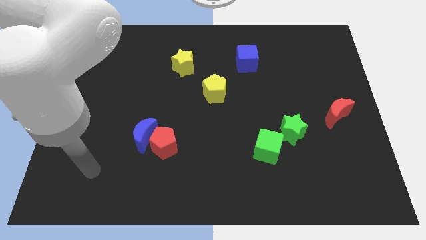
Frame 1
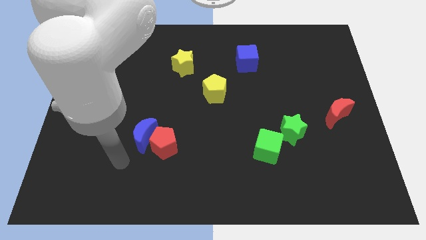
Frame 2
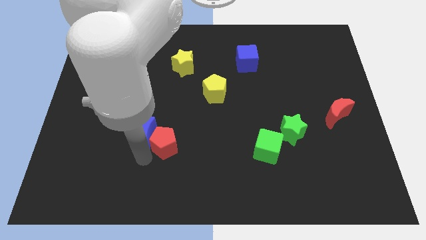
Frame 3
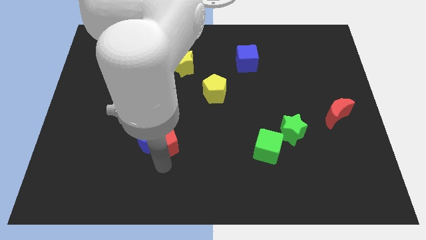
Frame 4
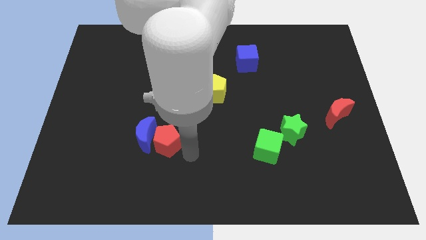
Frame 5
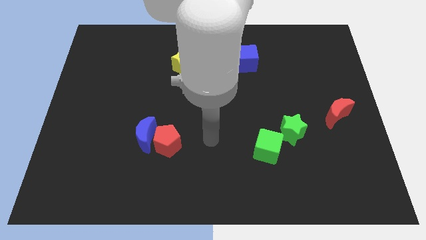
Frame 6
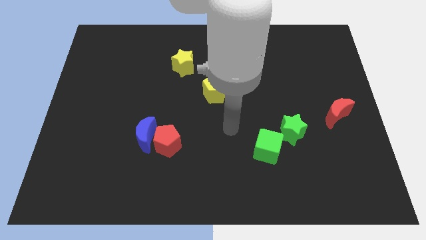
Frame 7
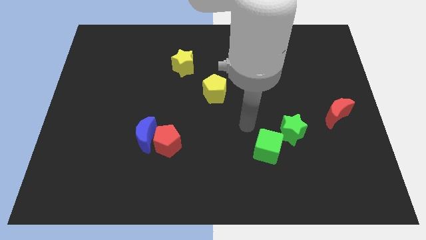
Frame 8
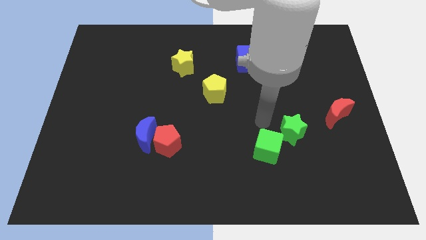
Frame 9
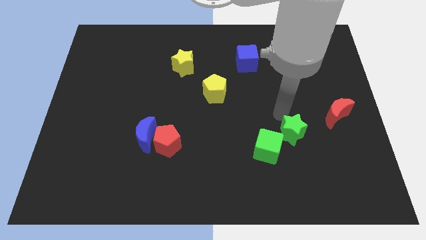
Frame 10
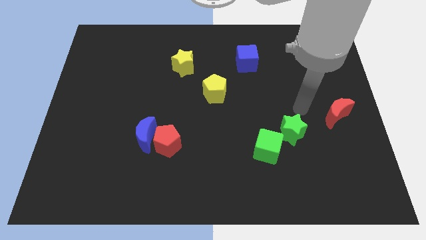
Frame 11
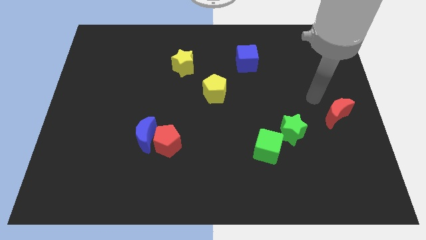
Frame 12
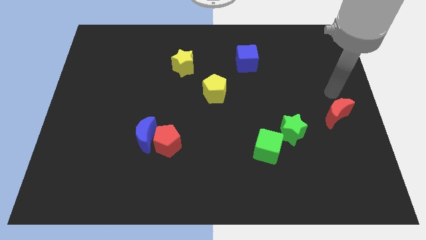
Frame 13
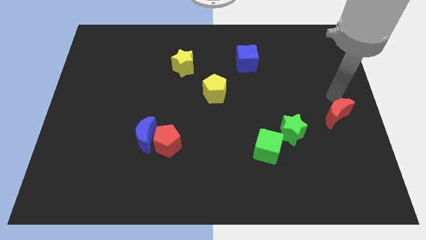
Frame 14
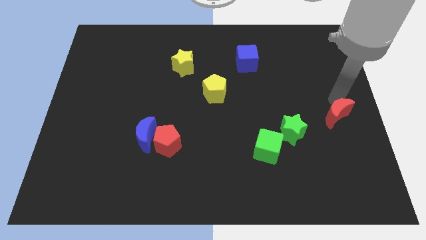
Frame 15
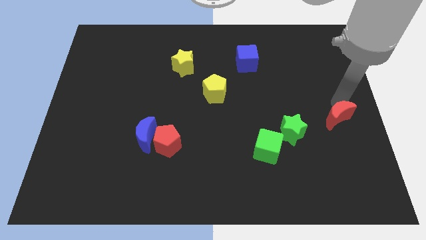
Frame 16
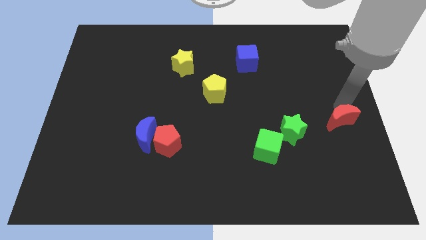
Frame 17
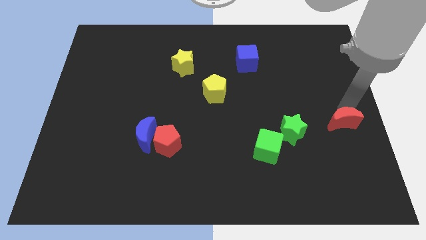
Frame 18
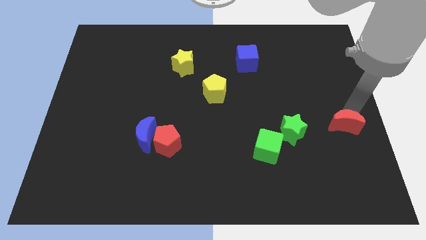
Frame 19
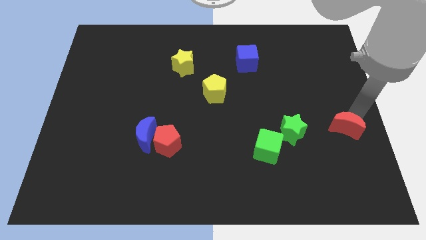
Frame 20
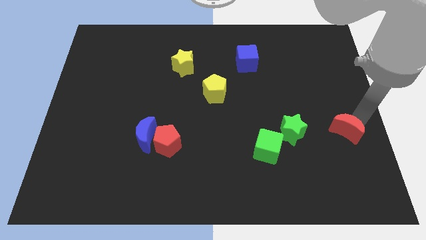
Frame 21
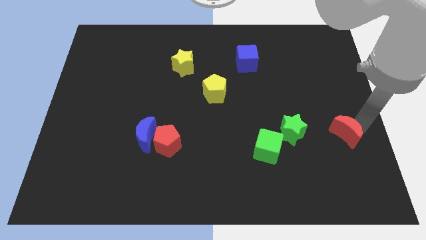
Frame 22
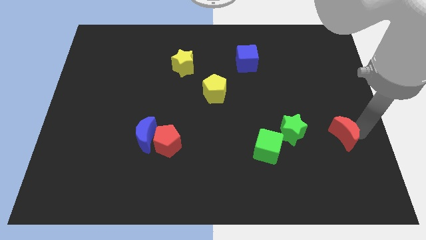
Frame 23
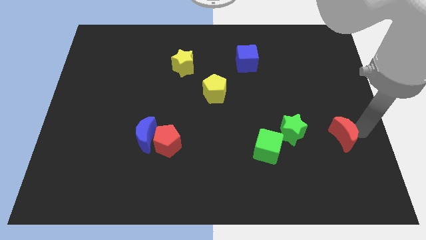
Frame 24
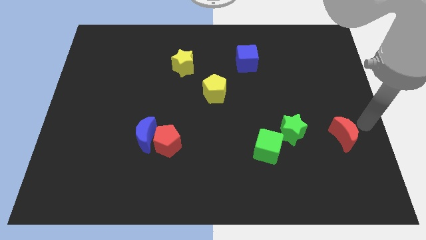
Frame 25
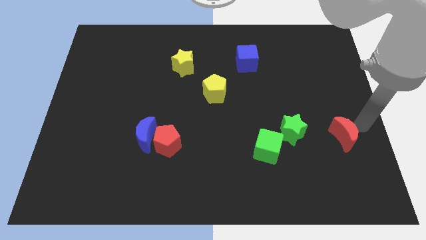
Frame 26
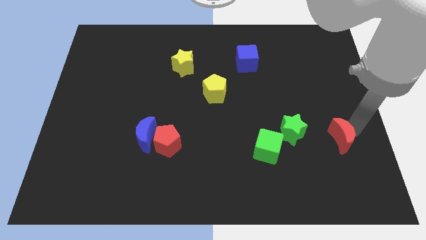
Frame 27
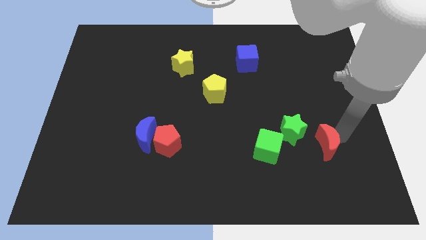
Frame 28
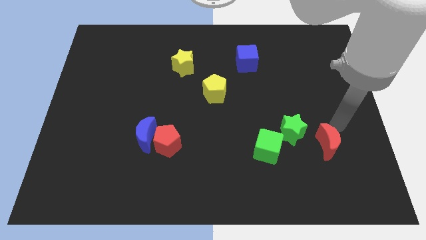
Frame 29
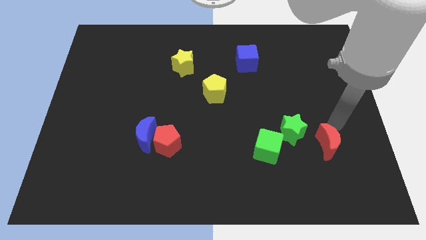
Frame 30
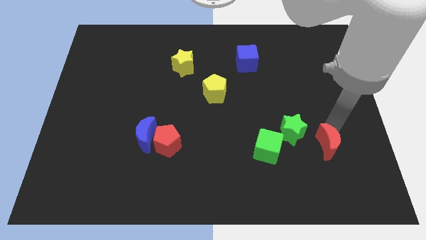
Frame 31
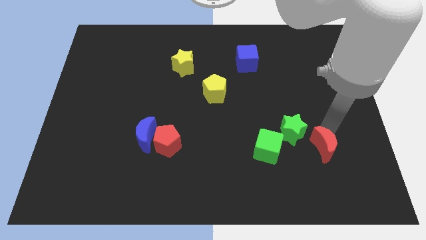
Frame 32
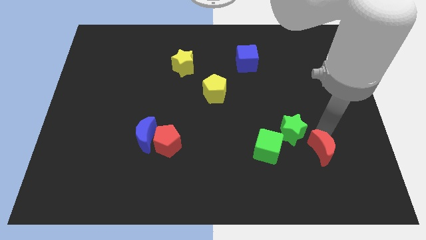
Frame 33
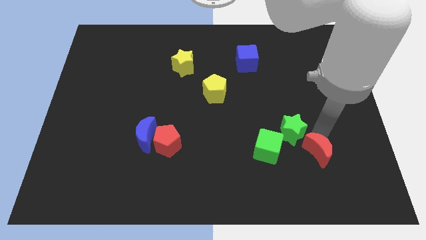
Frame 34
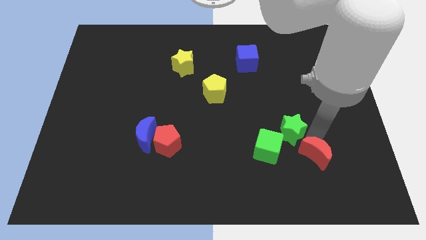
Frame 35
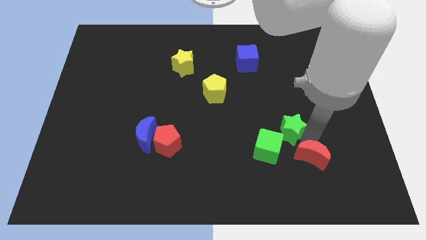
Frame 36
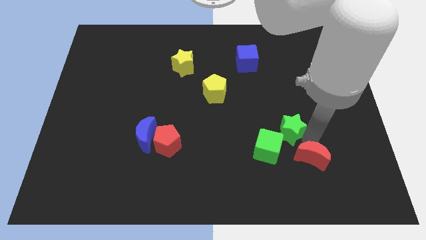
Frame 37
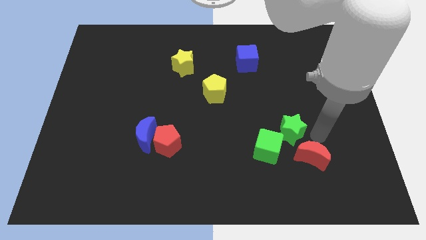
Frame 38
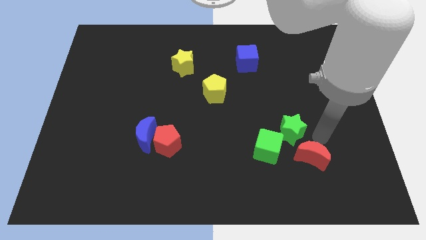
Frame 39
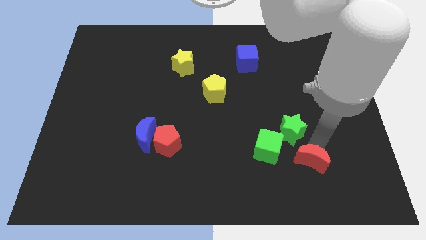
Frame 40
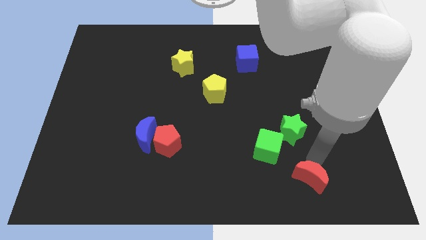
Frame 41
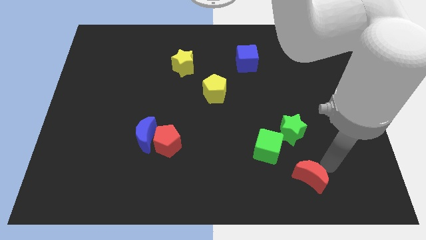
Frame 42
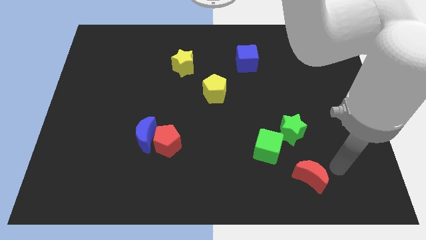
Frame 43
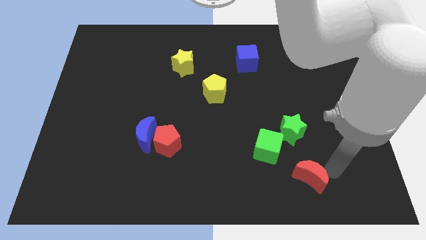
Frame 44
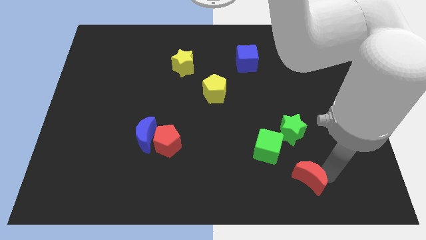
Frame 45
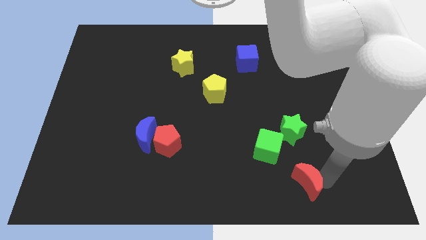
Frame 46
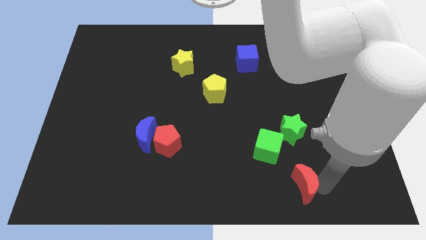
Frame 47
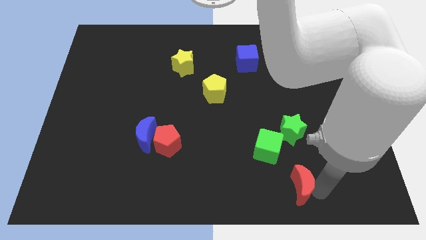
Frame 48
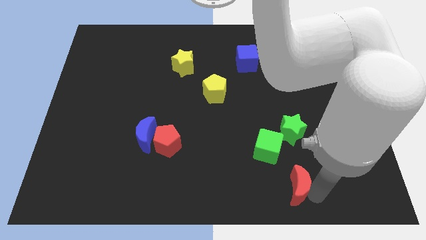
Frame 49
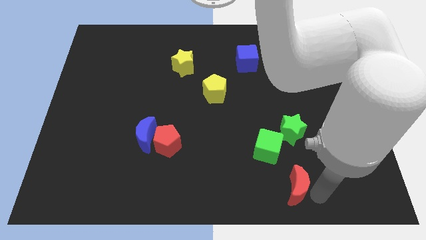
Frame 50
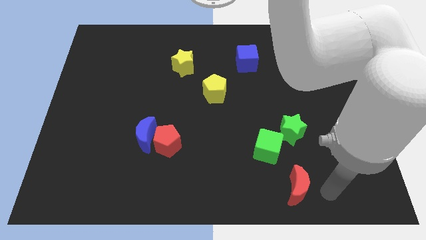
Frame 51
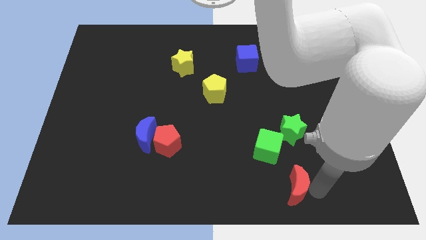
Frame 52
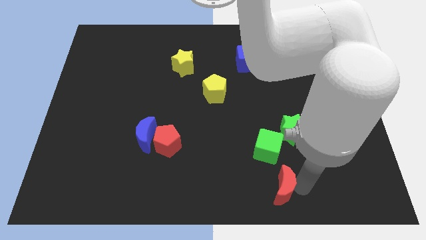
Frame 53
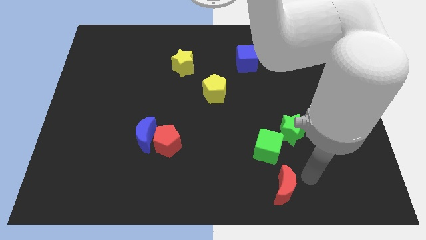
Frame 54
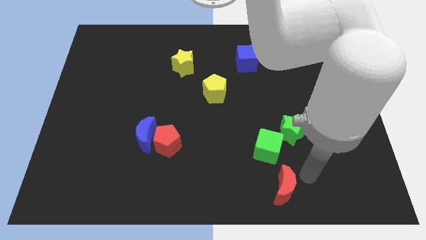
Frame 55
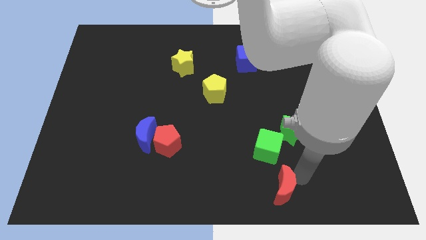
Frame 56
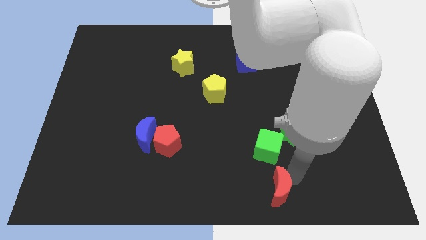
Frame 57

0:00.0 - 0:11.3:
slide the red moon to the bottom

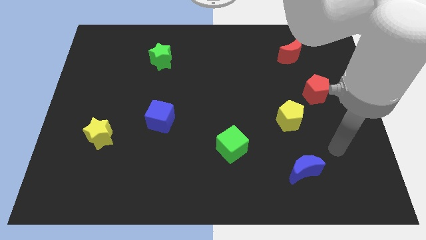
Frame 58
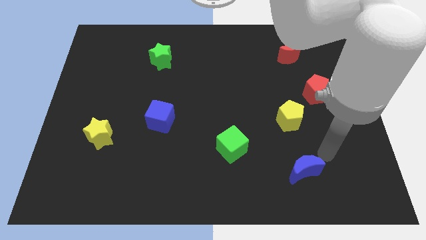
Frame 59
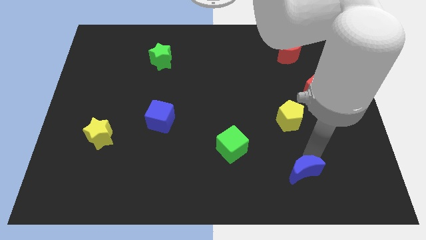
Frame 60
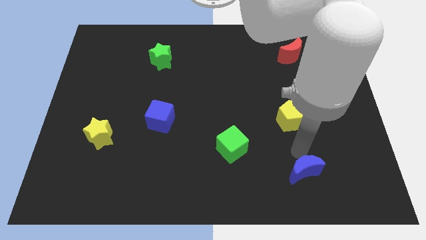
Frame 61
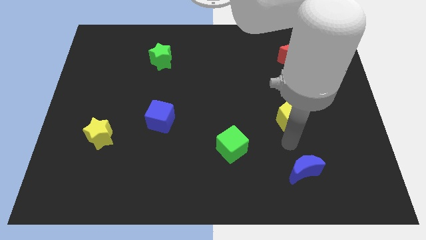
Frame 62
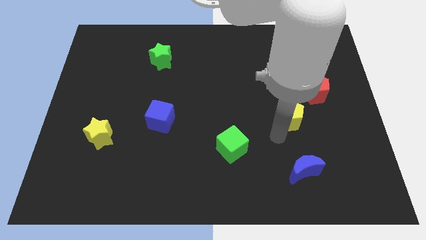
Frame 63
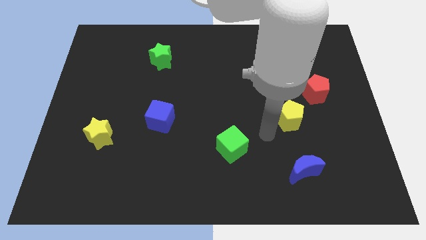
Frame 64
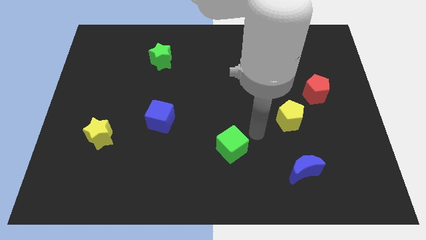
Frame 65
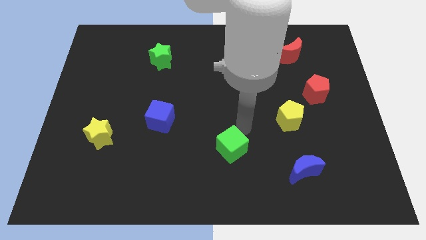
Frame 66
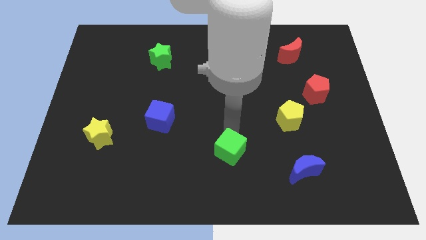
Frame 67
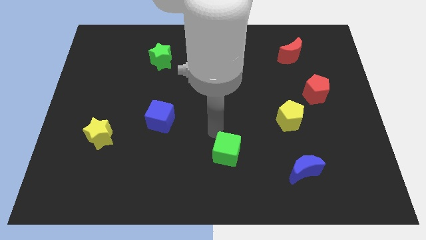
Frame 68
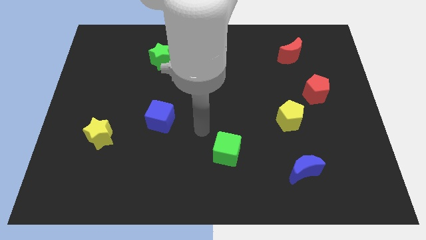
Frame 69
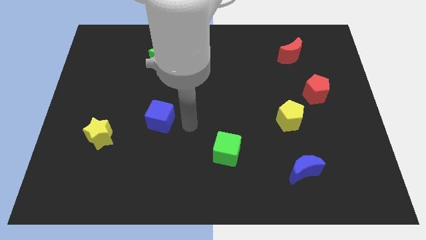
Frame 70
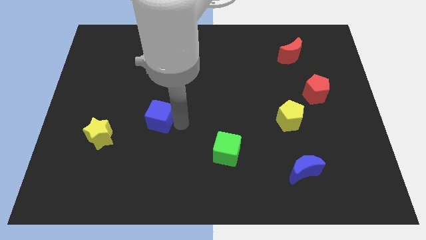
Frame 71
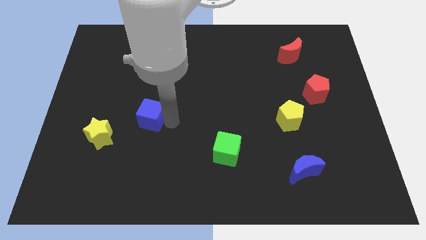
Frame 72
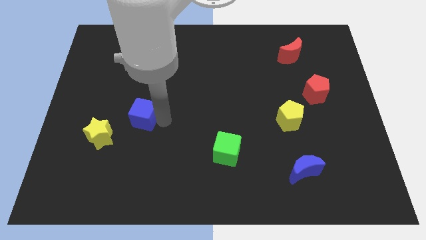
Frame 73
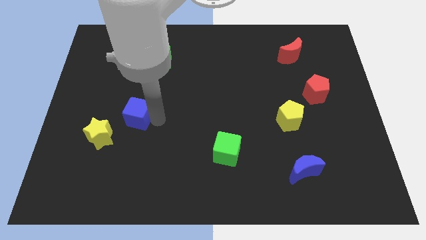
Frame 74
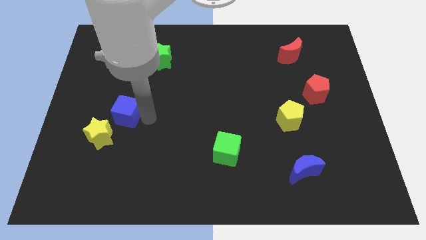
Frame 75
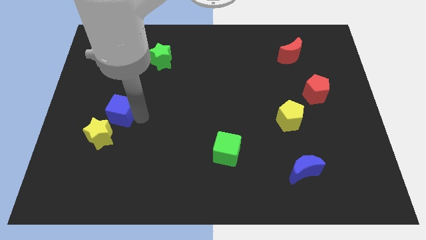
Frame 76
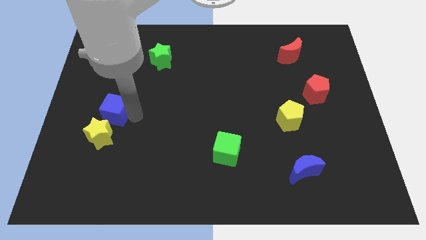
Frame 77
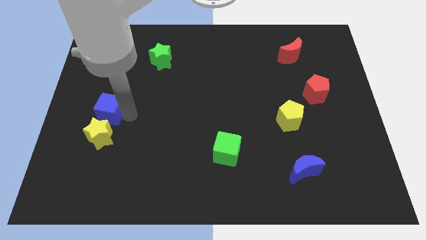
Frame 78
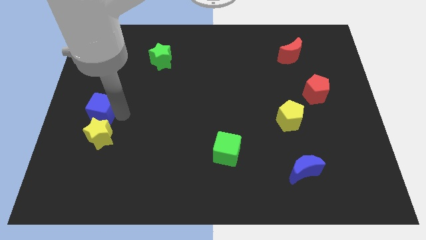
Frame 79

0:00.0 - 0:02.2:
put the blue cube to the center left
